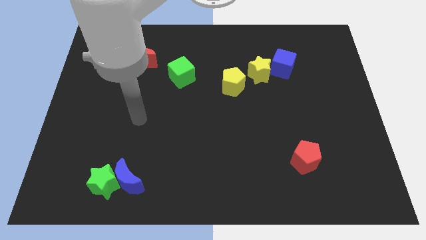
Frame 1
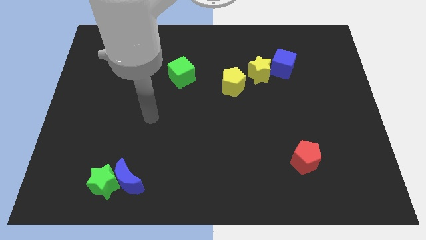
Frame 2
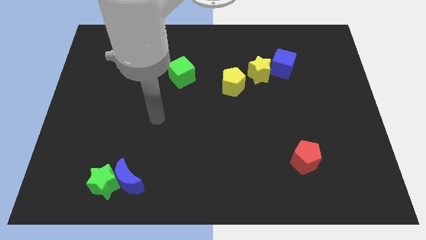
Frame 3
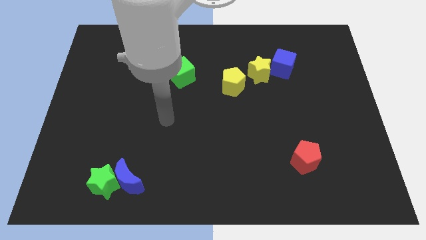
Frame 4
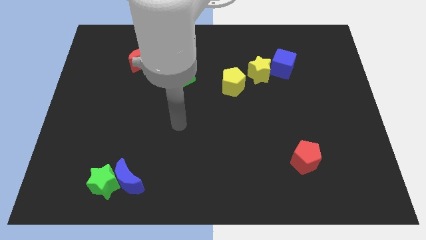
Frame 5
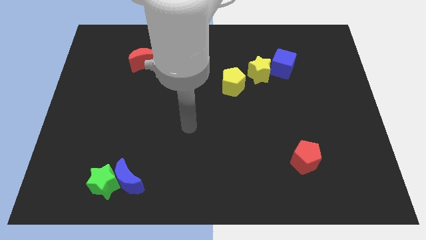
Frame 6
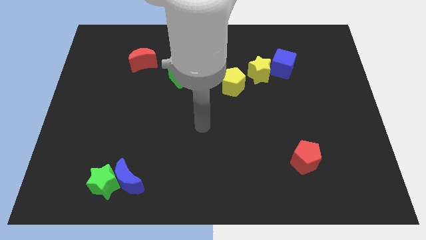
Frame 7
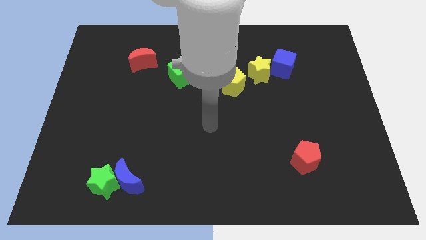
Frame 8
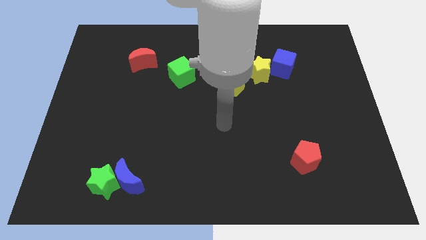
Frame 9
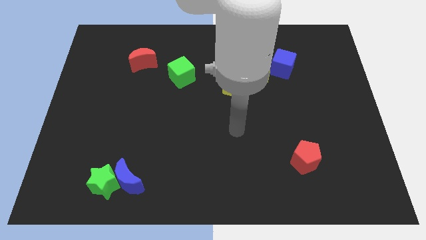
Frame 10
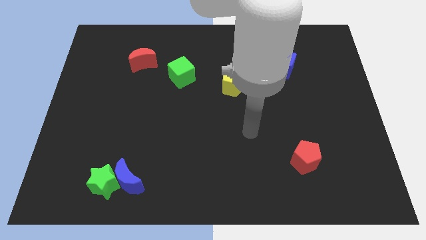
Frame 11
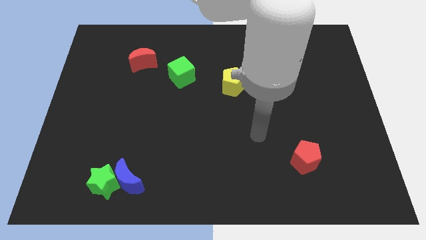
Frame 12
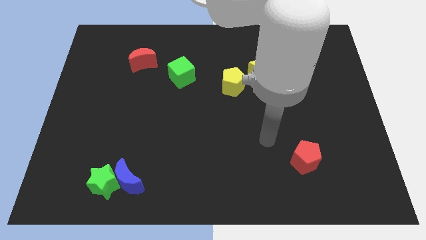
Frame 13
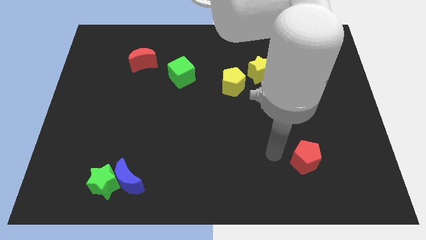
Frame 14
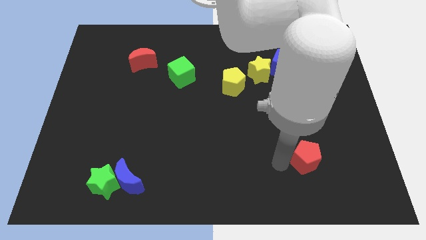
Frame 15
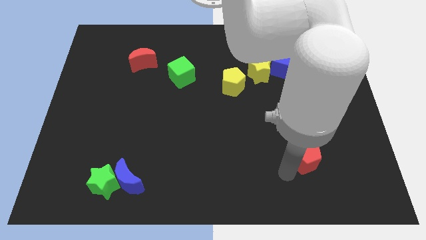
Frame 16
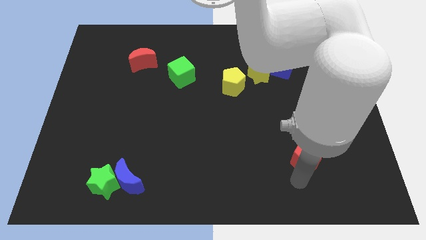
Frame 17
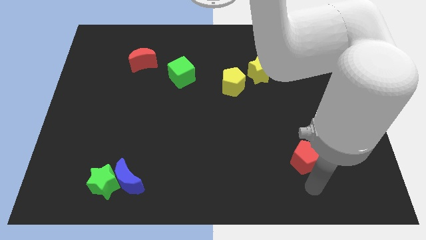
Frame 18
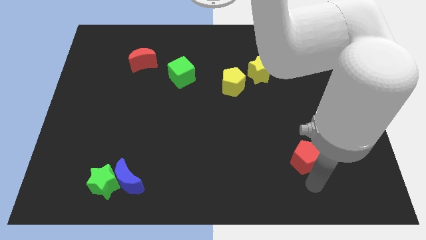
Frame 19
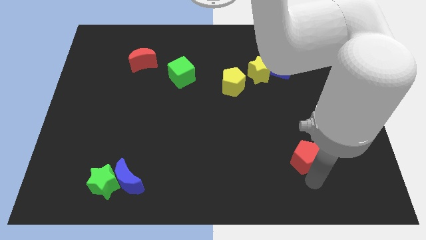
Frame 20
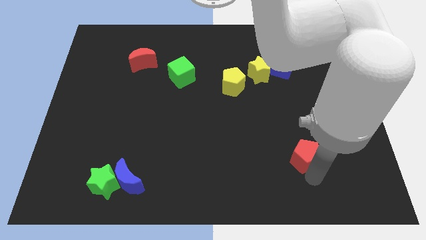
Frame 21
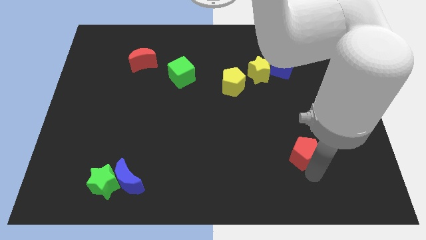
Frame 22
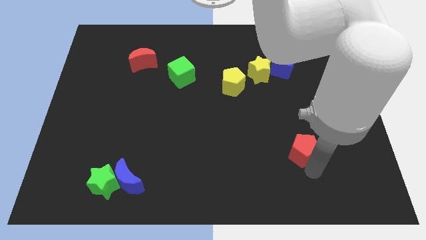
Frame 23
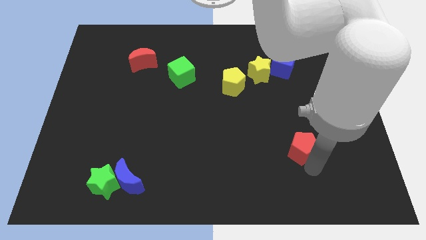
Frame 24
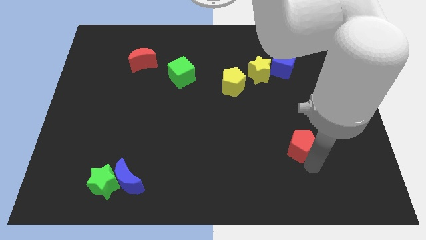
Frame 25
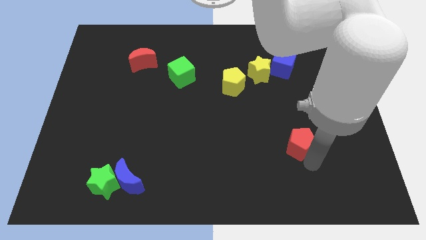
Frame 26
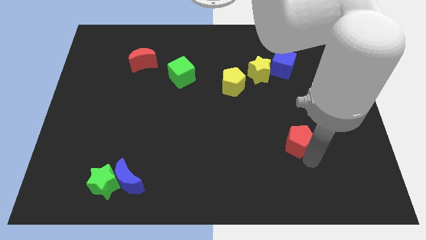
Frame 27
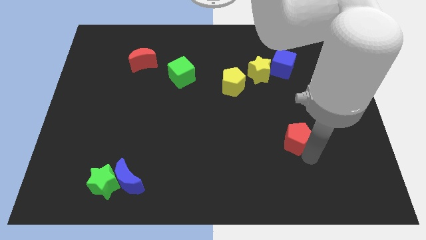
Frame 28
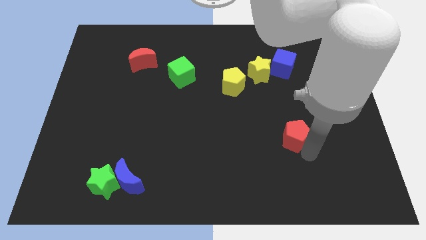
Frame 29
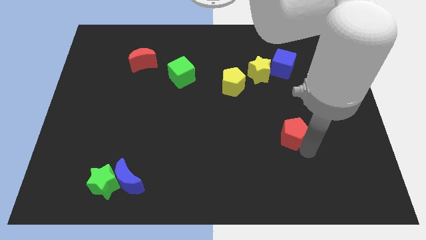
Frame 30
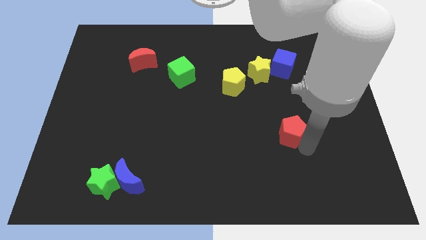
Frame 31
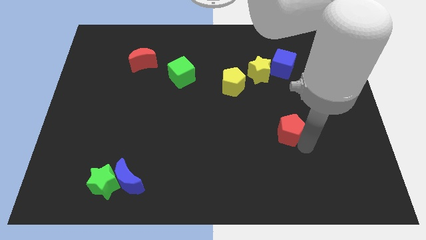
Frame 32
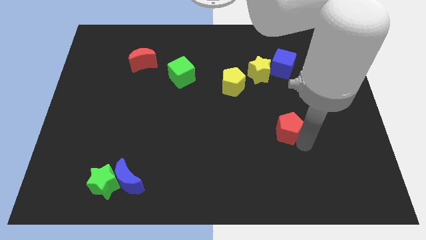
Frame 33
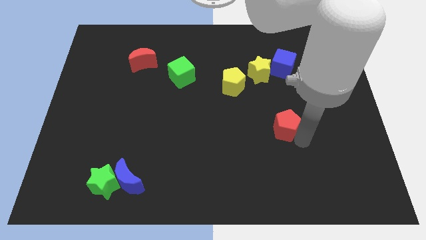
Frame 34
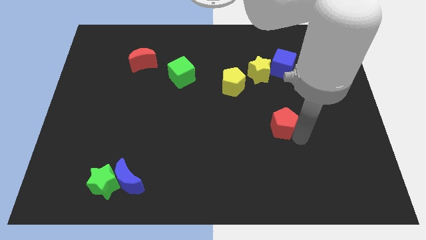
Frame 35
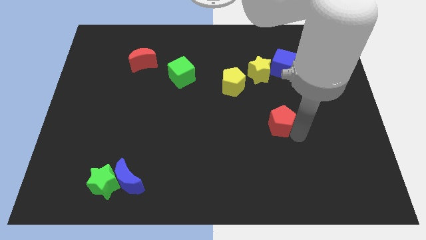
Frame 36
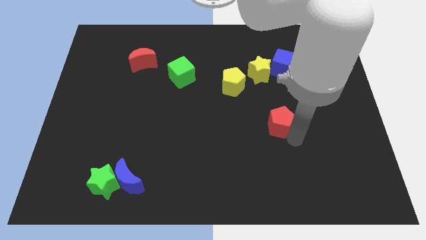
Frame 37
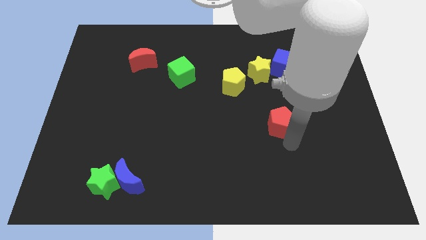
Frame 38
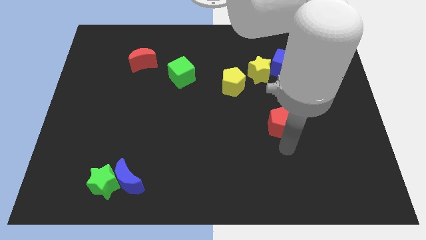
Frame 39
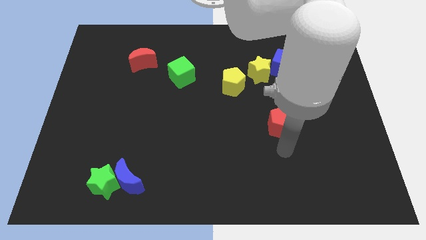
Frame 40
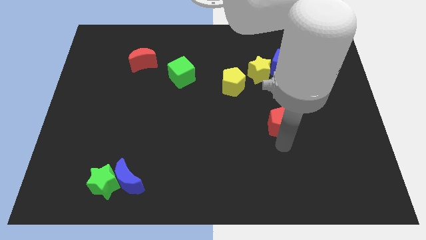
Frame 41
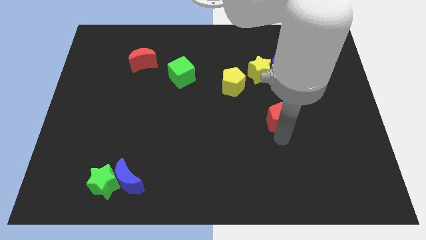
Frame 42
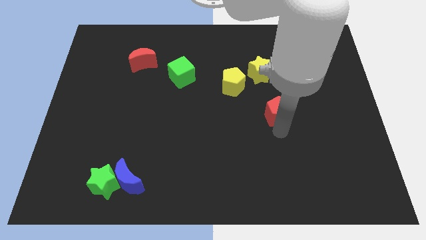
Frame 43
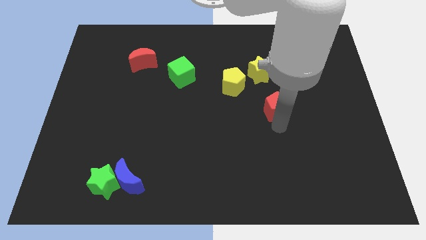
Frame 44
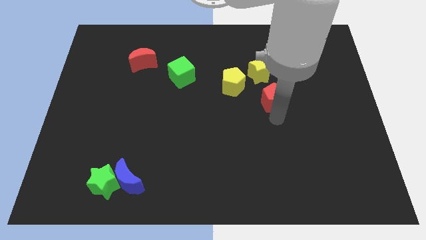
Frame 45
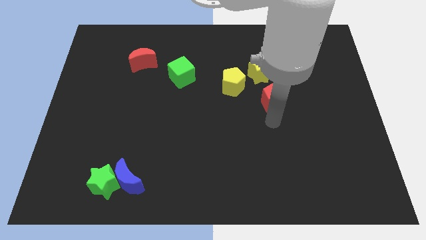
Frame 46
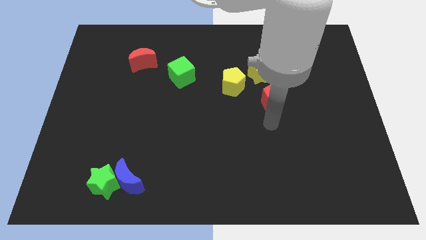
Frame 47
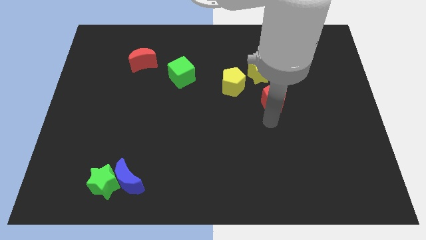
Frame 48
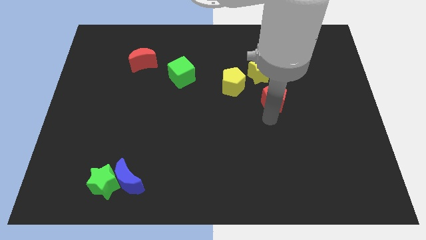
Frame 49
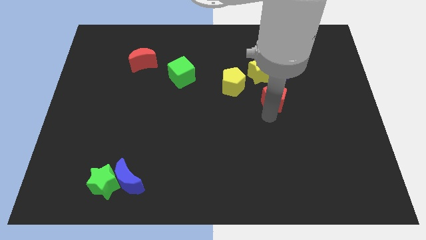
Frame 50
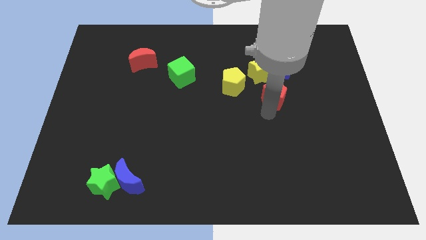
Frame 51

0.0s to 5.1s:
push the red pentagon to the right of the yellow pentagon

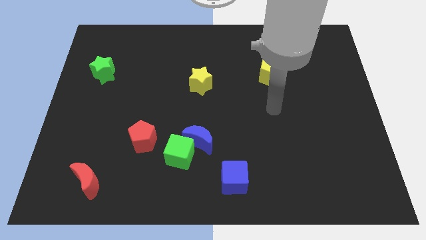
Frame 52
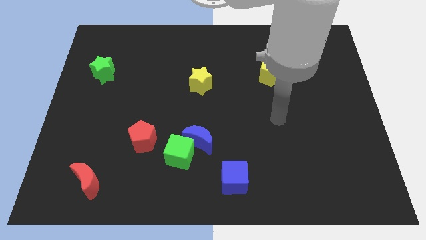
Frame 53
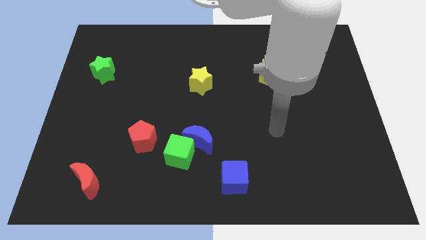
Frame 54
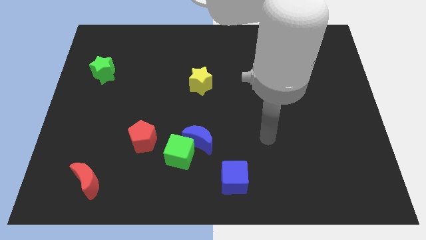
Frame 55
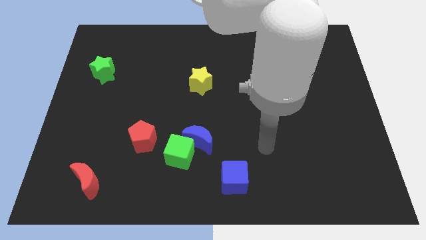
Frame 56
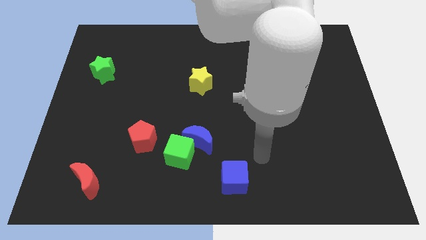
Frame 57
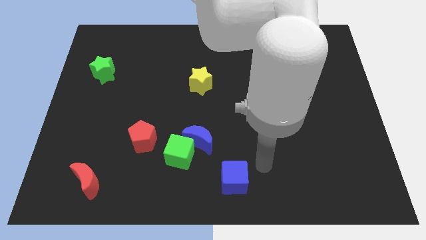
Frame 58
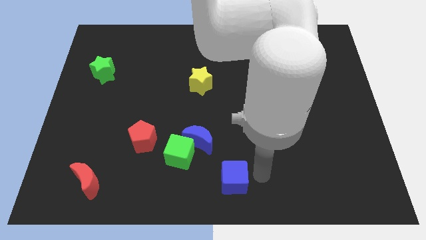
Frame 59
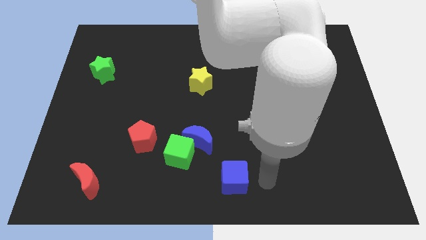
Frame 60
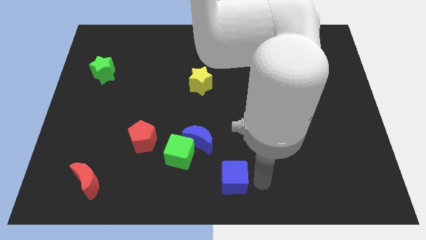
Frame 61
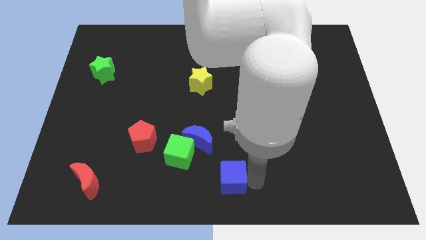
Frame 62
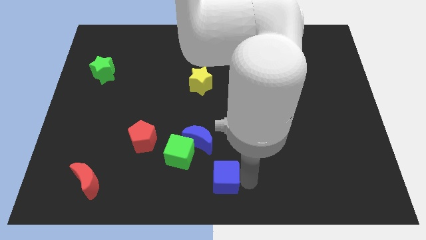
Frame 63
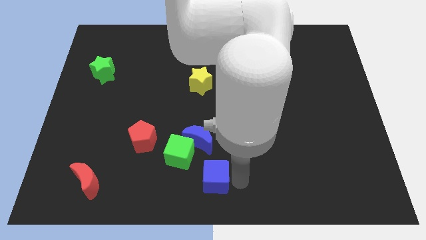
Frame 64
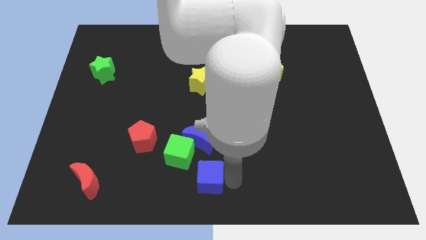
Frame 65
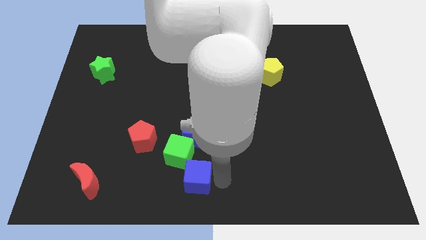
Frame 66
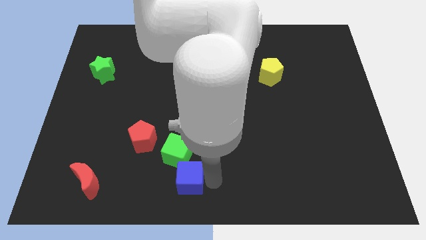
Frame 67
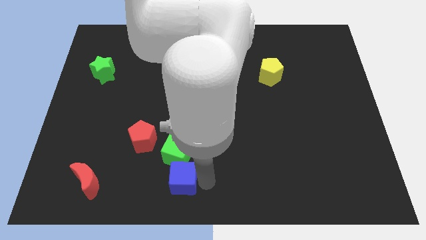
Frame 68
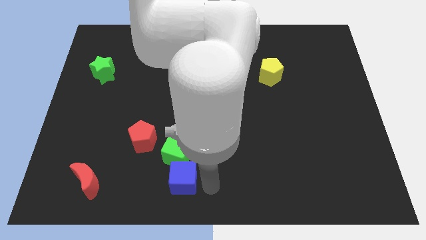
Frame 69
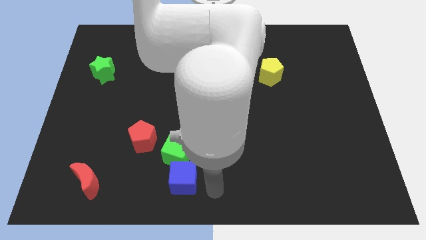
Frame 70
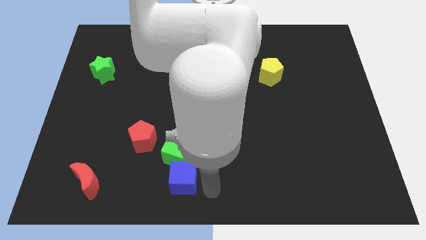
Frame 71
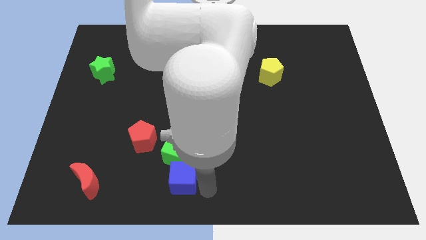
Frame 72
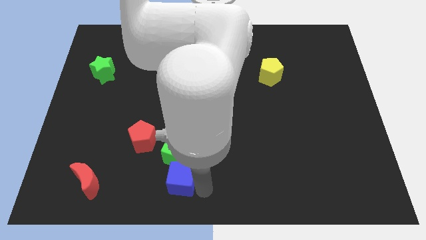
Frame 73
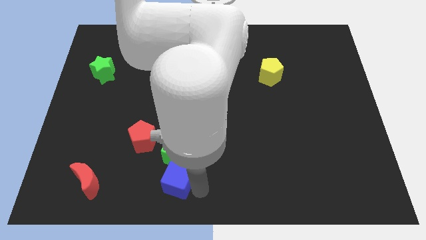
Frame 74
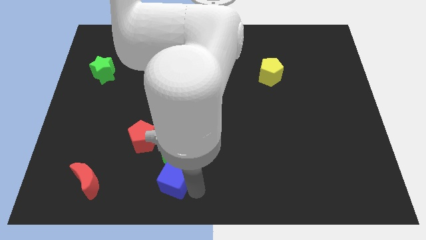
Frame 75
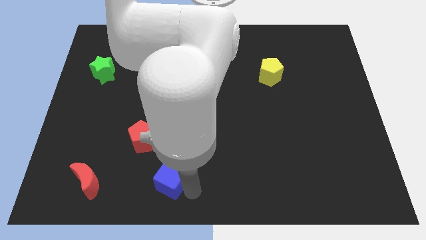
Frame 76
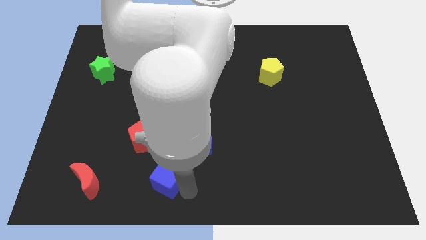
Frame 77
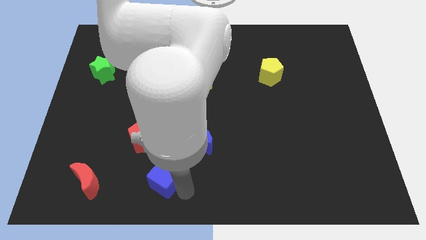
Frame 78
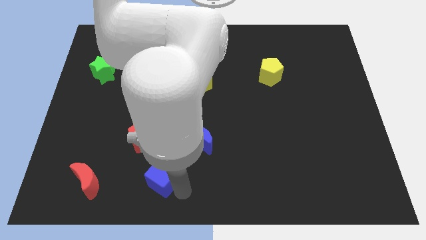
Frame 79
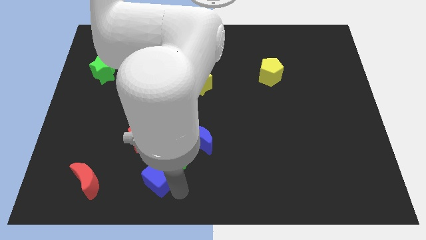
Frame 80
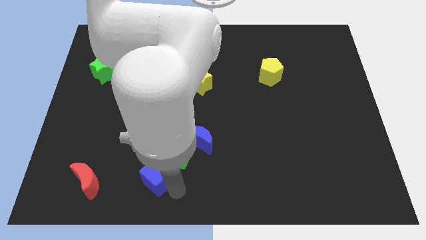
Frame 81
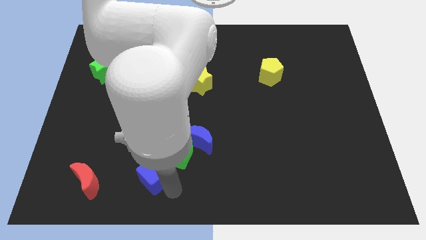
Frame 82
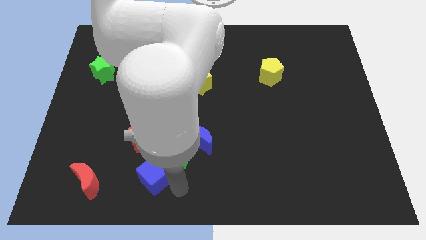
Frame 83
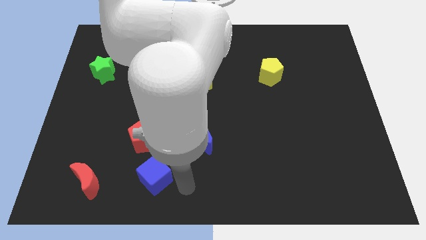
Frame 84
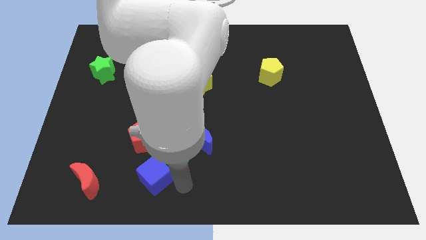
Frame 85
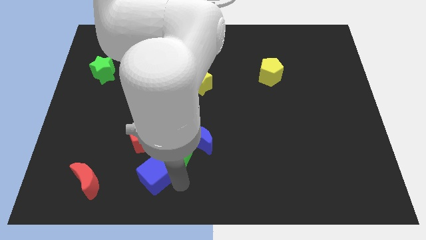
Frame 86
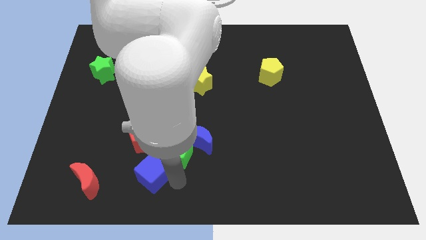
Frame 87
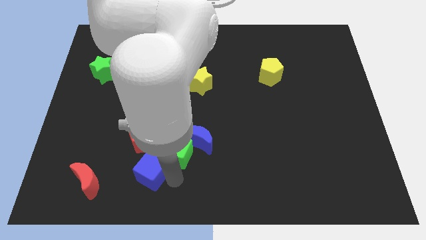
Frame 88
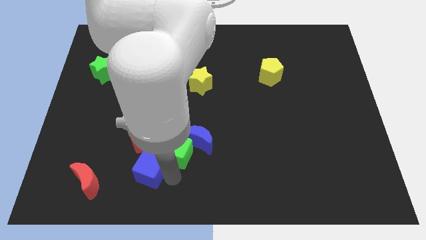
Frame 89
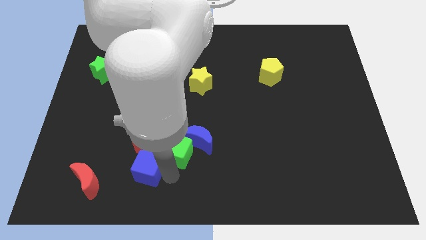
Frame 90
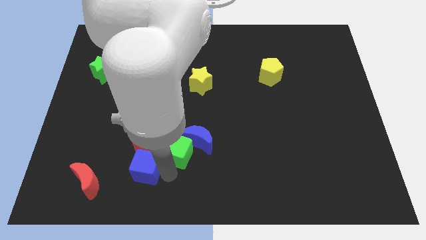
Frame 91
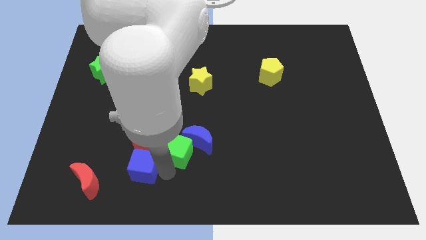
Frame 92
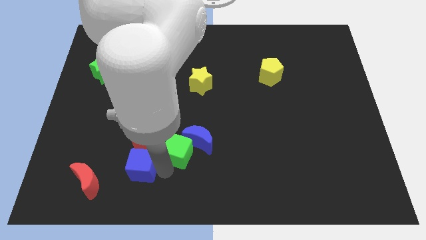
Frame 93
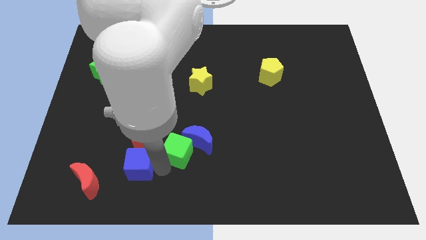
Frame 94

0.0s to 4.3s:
move the blue cube diagonally up and to the right of the red moon
